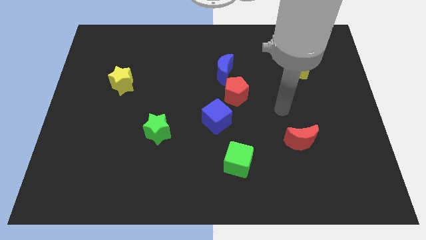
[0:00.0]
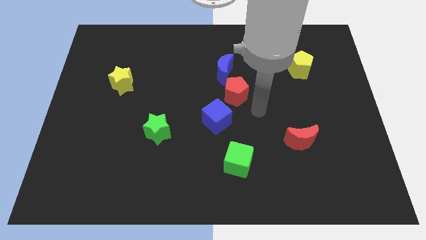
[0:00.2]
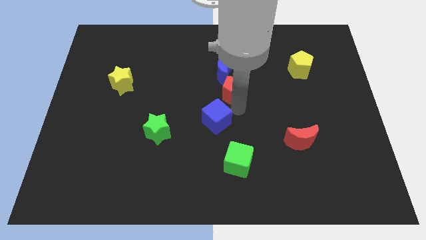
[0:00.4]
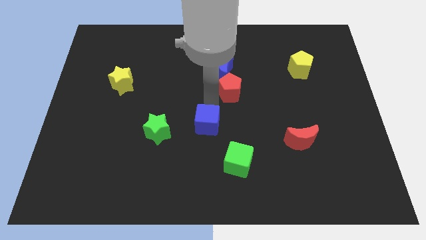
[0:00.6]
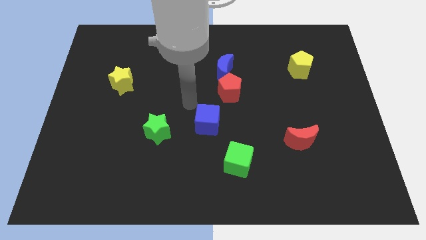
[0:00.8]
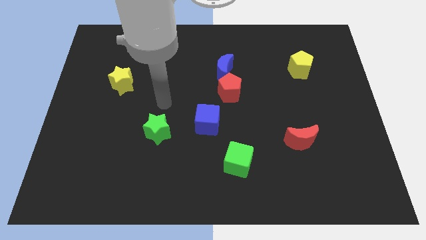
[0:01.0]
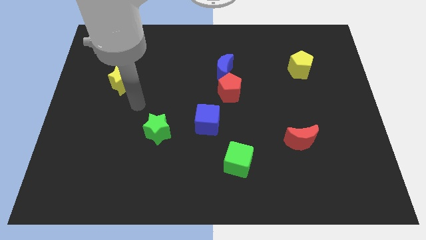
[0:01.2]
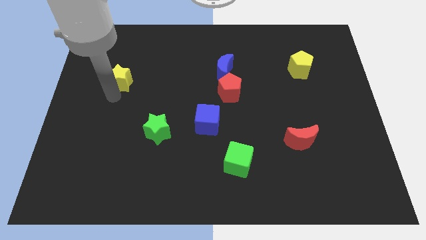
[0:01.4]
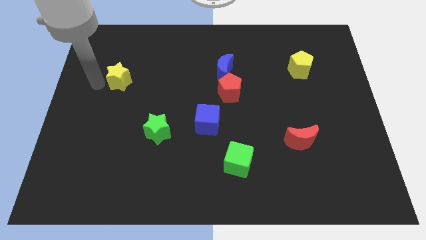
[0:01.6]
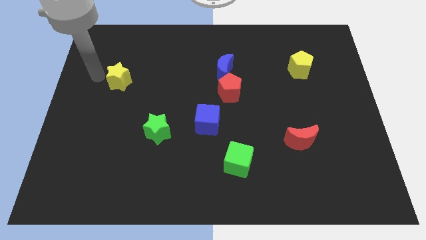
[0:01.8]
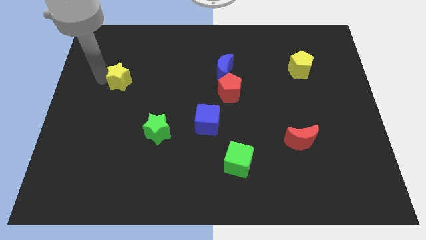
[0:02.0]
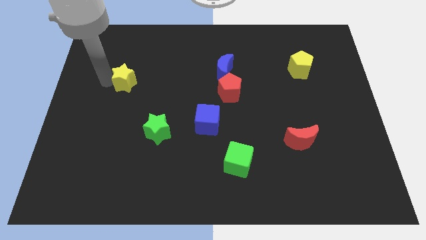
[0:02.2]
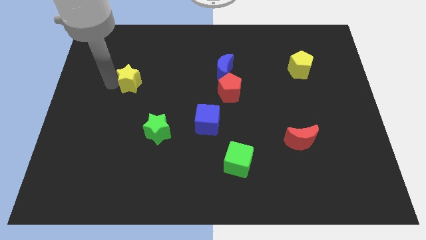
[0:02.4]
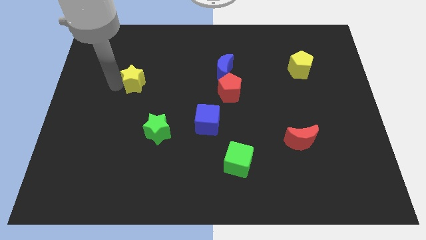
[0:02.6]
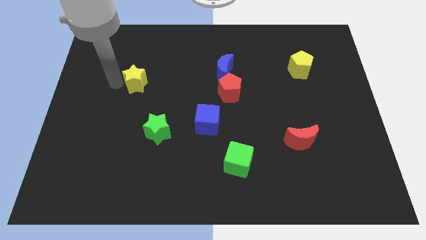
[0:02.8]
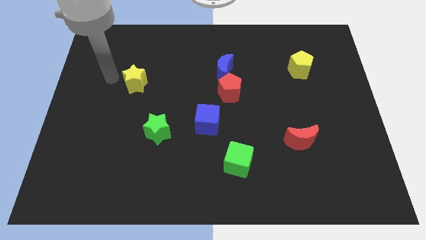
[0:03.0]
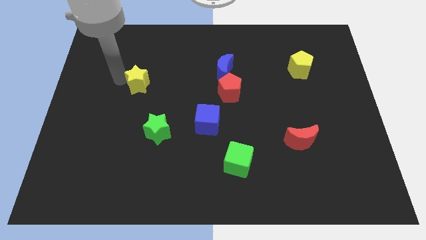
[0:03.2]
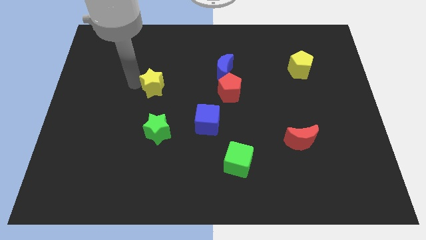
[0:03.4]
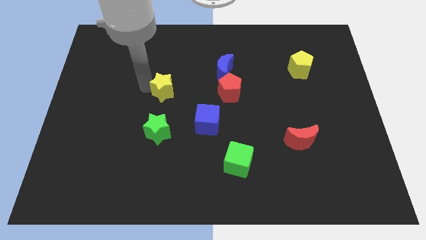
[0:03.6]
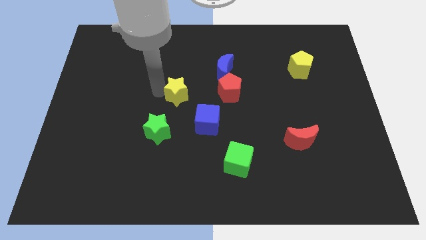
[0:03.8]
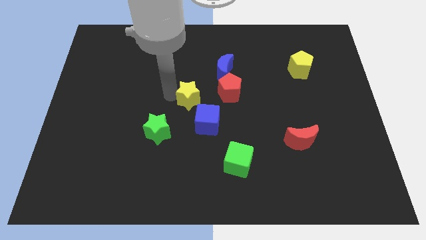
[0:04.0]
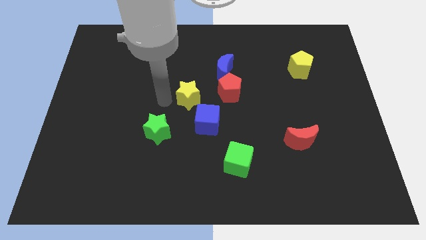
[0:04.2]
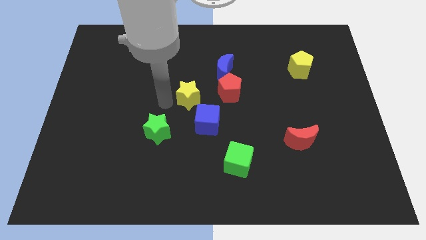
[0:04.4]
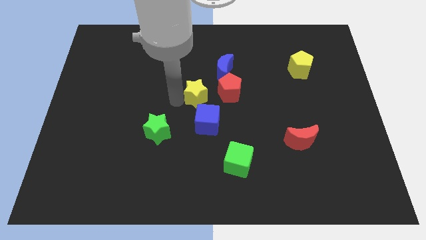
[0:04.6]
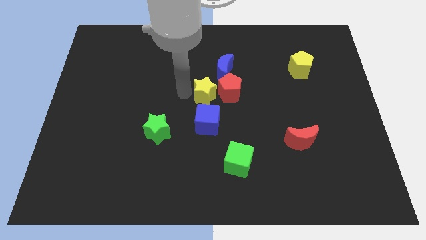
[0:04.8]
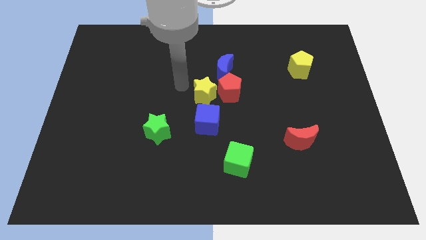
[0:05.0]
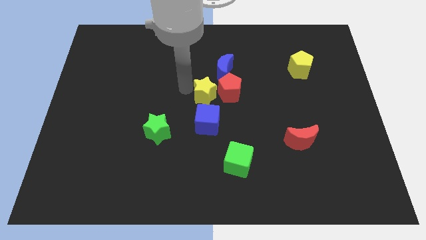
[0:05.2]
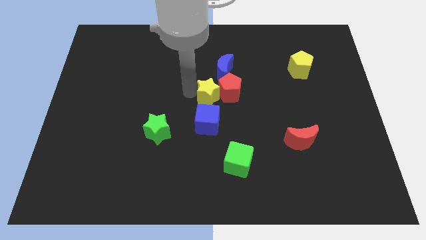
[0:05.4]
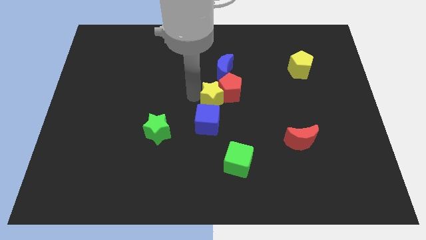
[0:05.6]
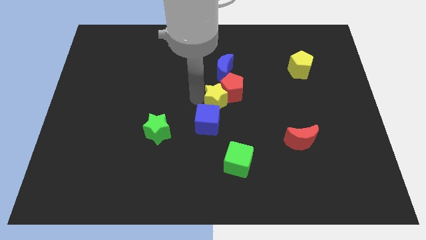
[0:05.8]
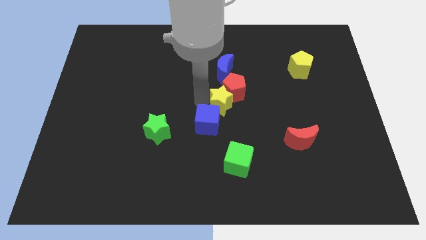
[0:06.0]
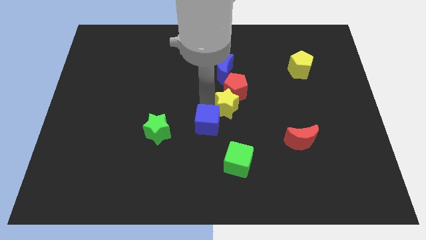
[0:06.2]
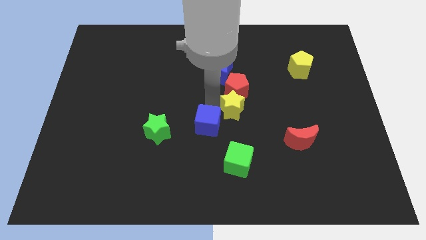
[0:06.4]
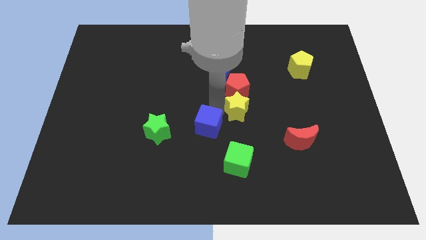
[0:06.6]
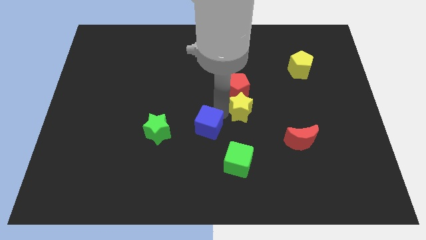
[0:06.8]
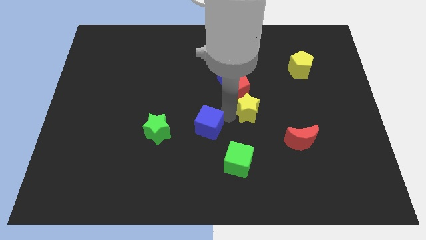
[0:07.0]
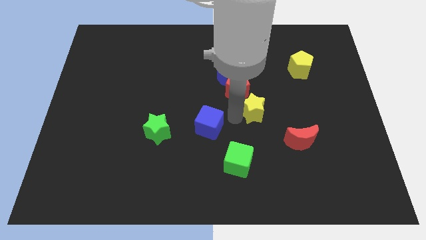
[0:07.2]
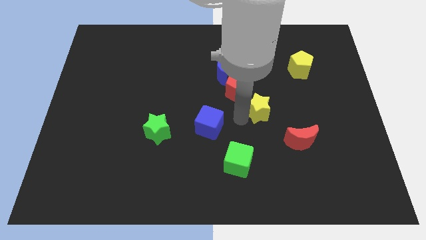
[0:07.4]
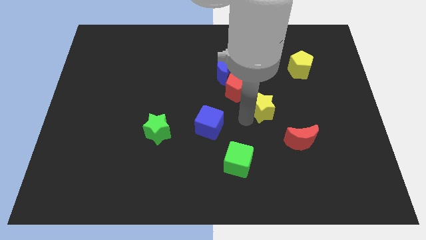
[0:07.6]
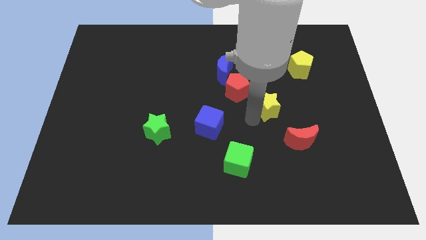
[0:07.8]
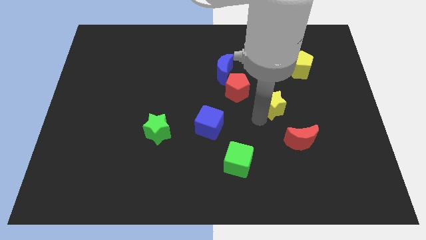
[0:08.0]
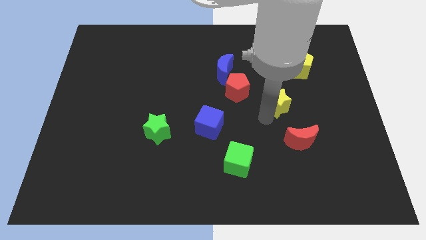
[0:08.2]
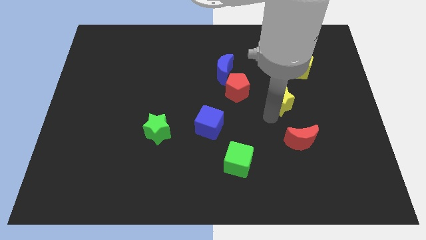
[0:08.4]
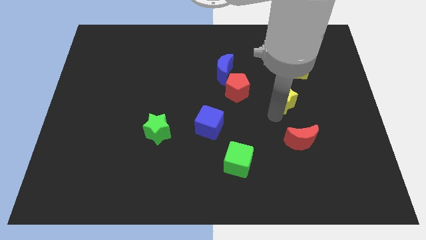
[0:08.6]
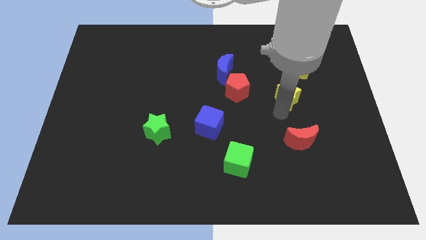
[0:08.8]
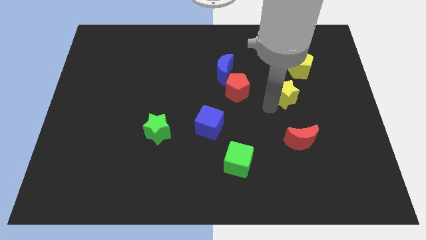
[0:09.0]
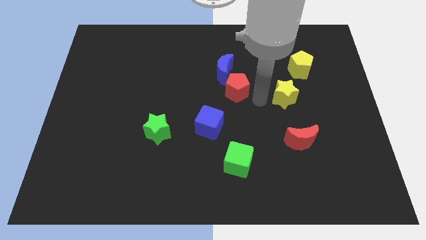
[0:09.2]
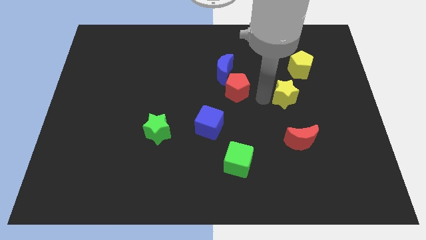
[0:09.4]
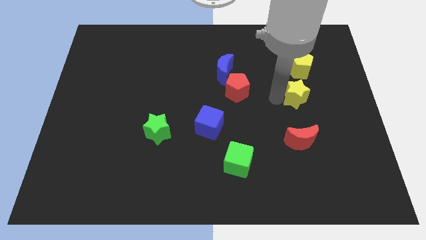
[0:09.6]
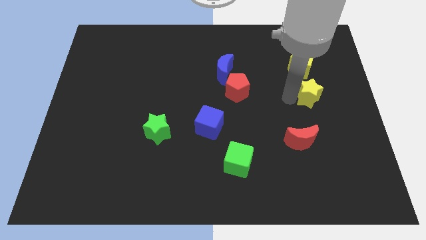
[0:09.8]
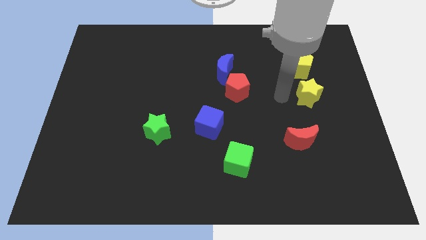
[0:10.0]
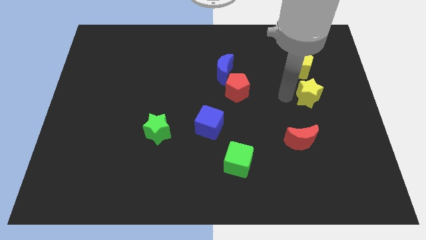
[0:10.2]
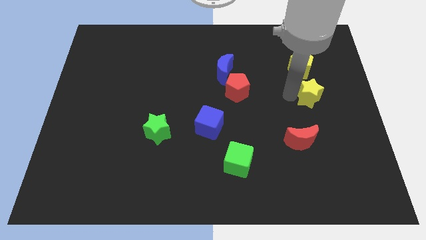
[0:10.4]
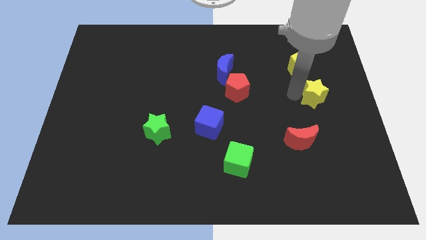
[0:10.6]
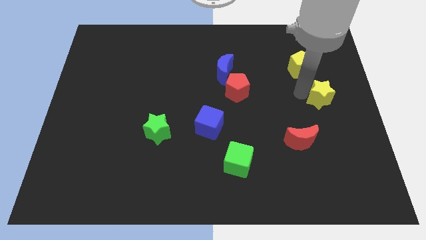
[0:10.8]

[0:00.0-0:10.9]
put the yellow star to the right side

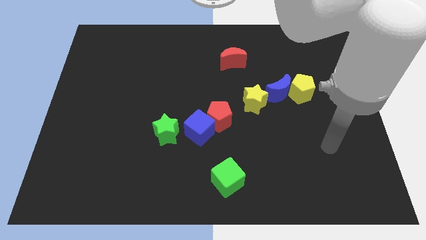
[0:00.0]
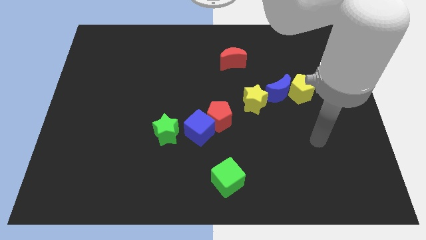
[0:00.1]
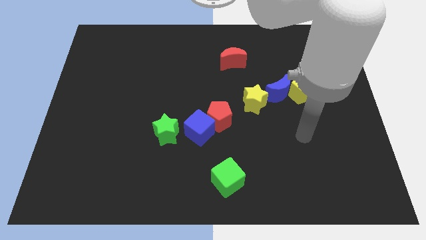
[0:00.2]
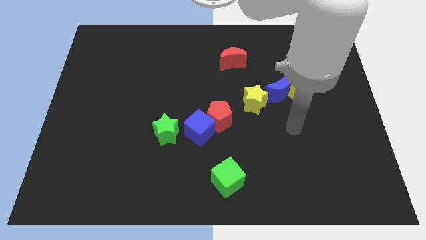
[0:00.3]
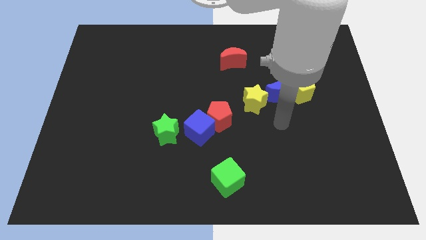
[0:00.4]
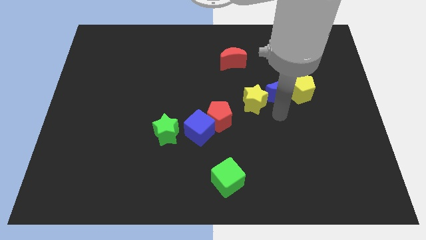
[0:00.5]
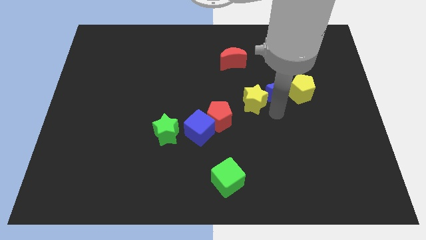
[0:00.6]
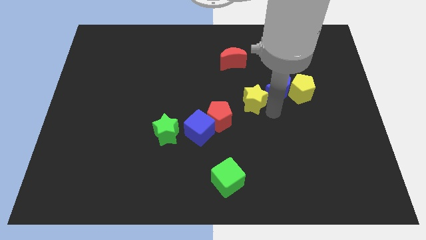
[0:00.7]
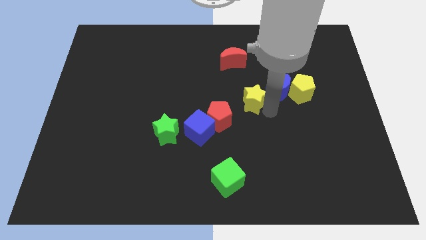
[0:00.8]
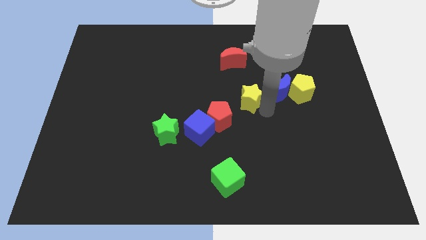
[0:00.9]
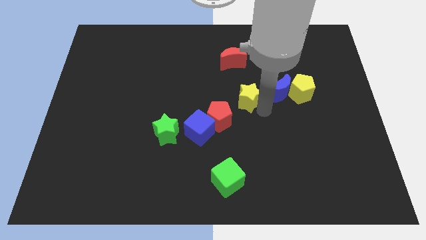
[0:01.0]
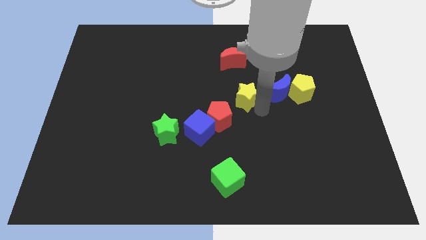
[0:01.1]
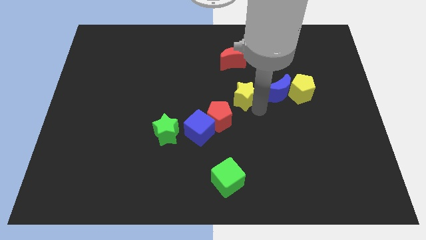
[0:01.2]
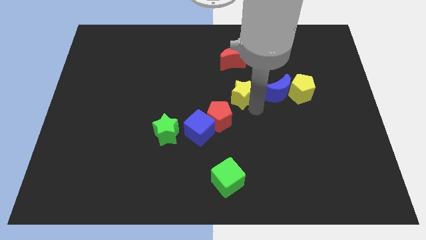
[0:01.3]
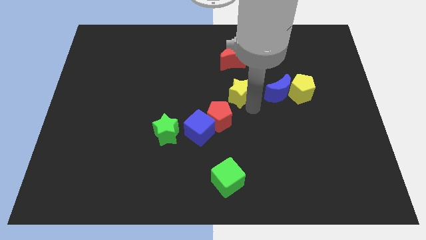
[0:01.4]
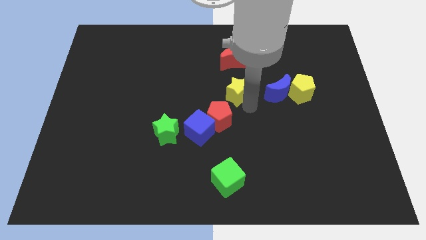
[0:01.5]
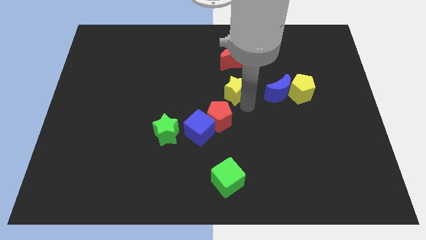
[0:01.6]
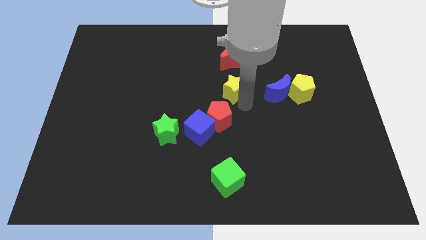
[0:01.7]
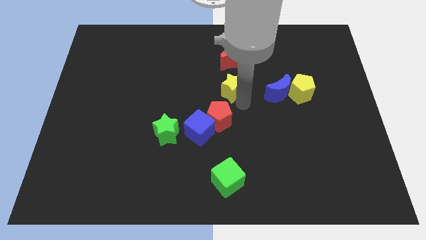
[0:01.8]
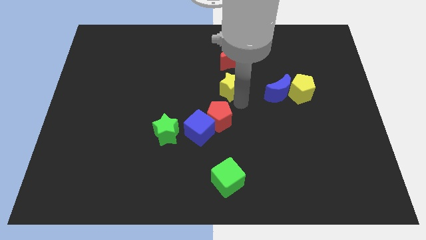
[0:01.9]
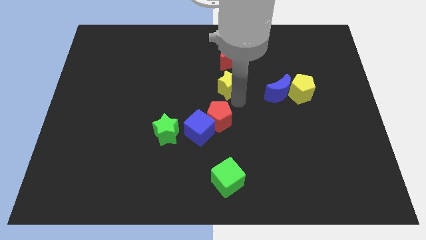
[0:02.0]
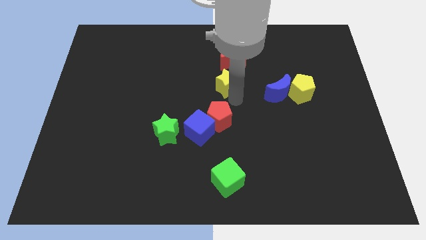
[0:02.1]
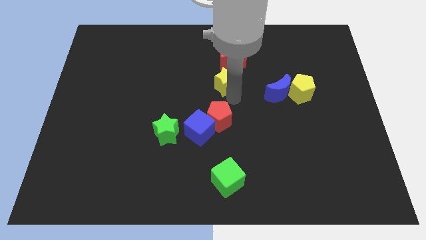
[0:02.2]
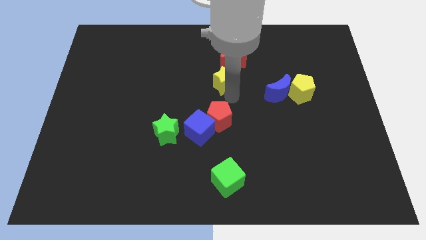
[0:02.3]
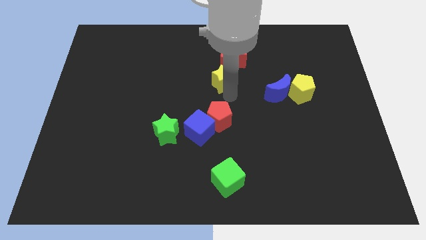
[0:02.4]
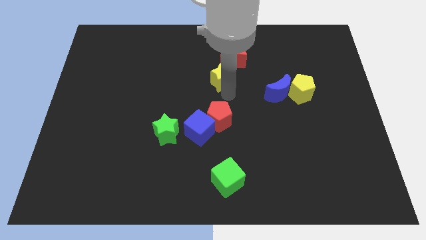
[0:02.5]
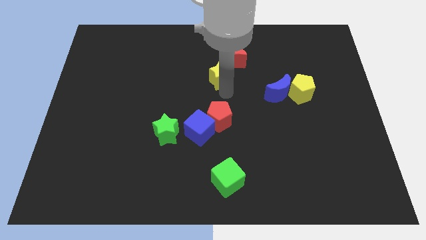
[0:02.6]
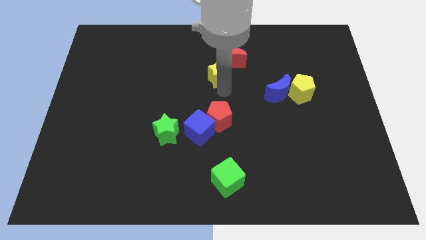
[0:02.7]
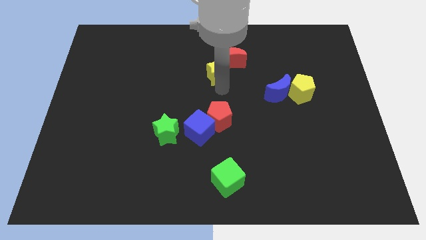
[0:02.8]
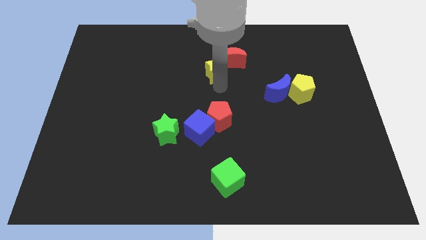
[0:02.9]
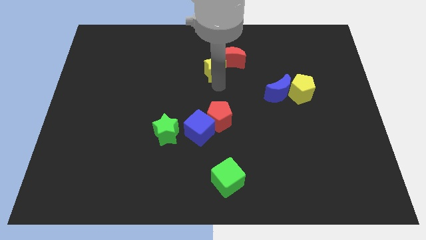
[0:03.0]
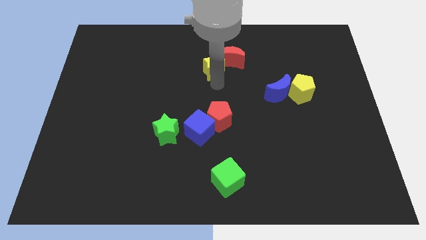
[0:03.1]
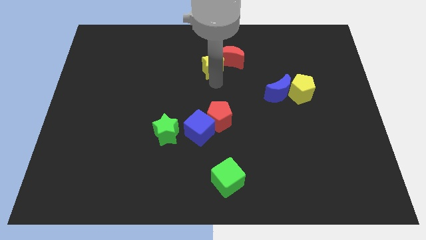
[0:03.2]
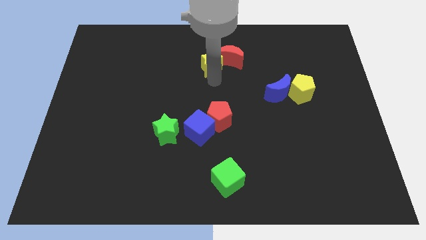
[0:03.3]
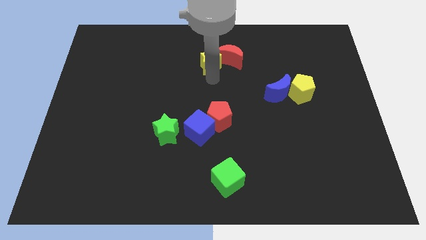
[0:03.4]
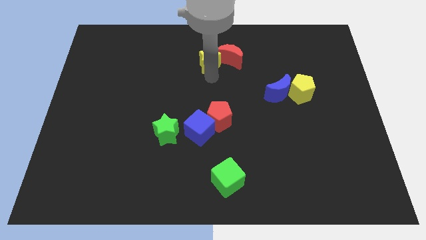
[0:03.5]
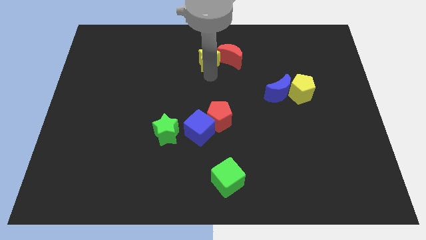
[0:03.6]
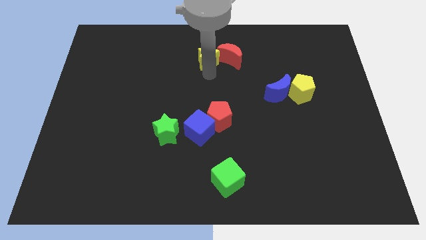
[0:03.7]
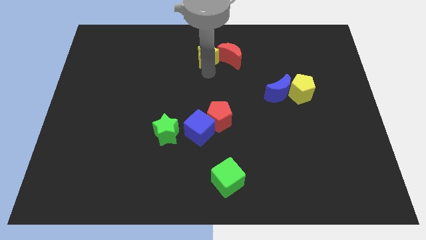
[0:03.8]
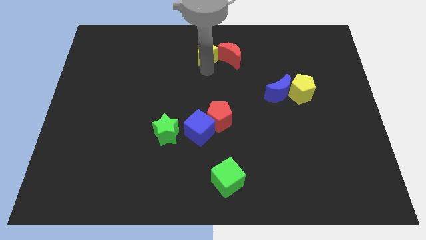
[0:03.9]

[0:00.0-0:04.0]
move the yellow star to the towards your base
